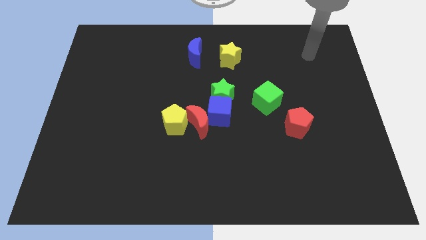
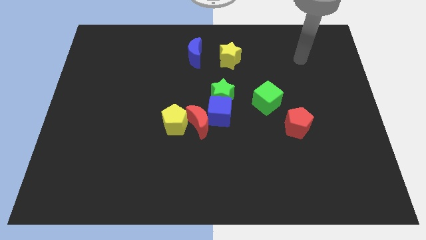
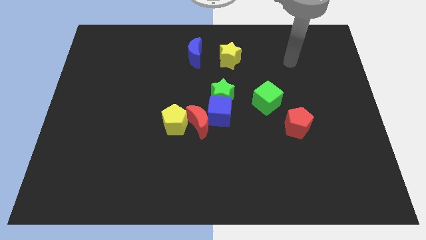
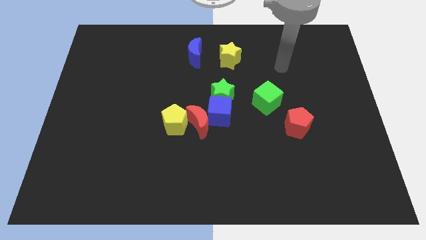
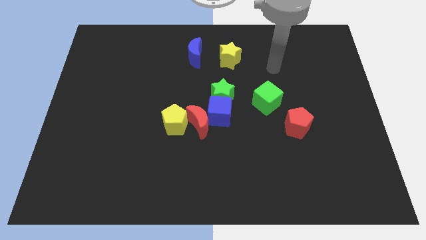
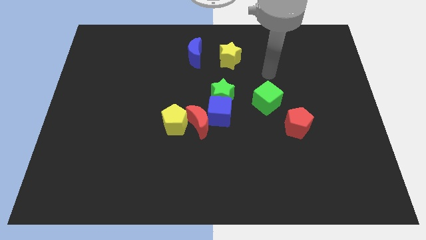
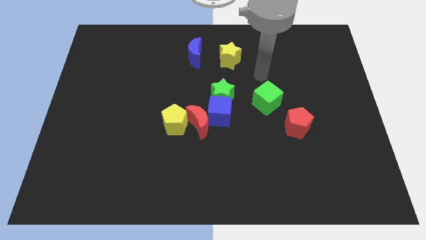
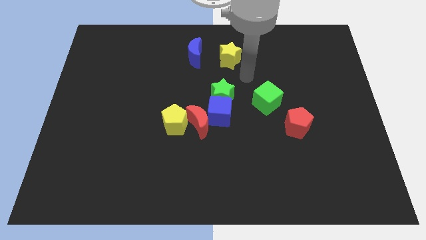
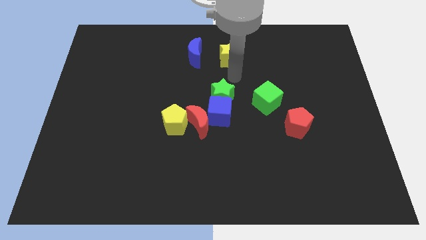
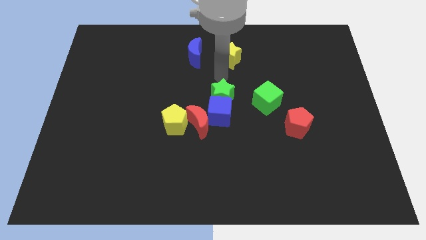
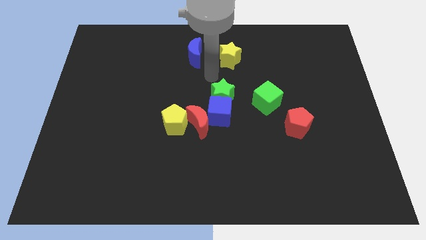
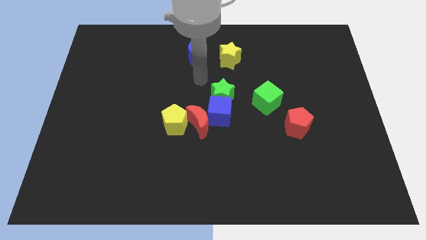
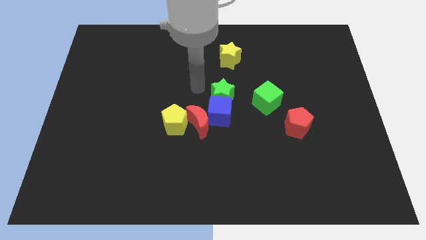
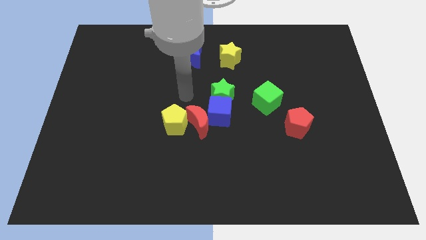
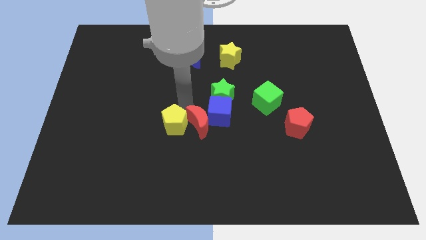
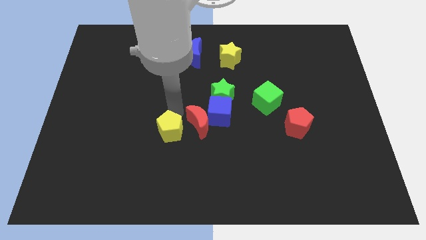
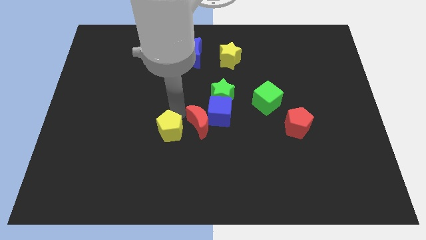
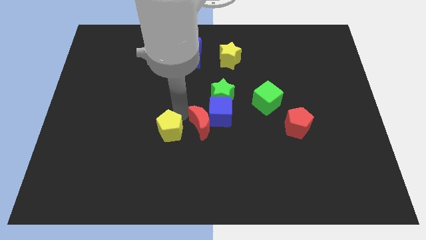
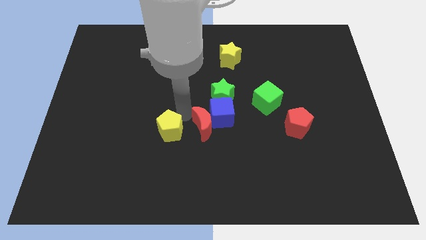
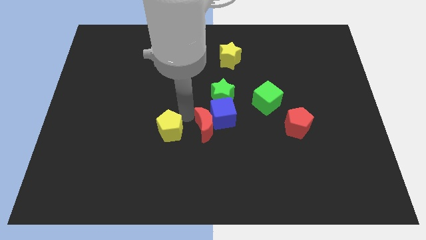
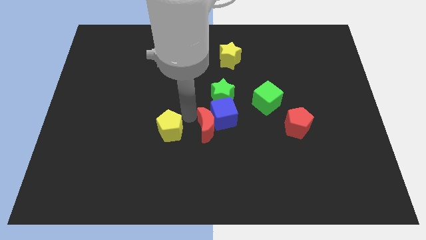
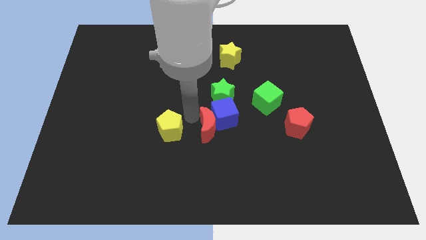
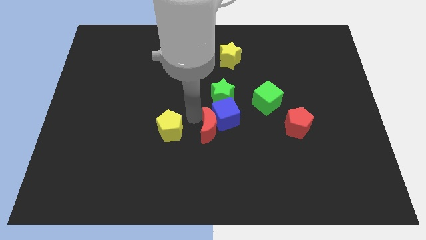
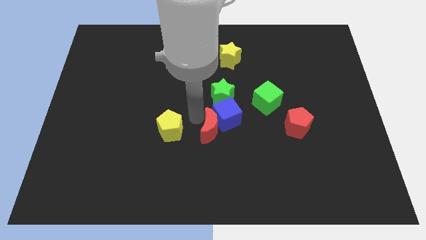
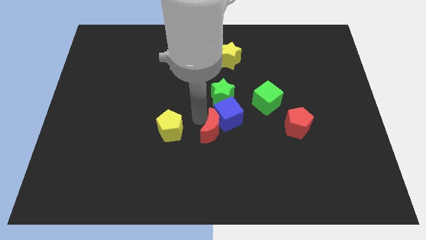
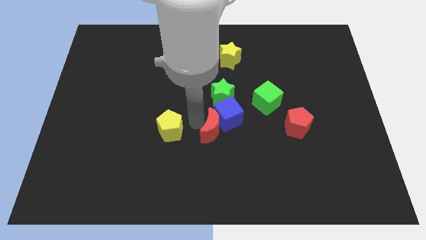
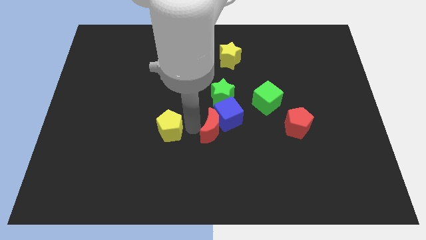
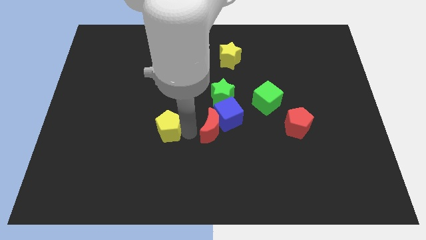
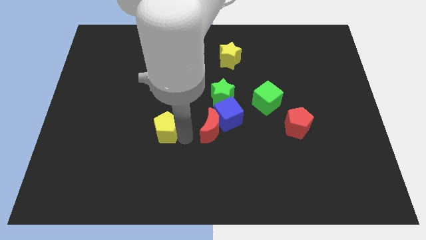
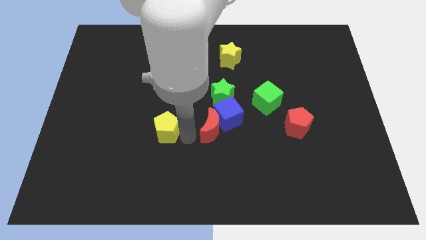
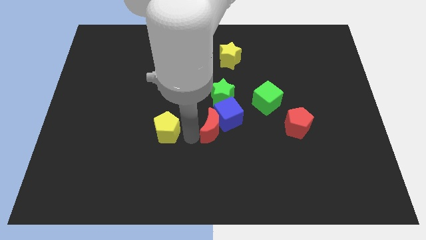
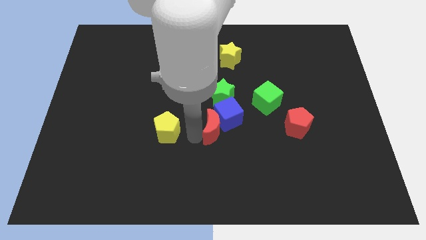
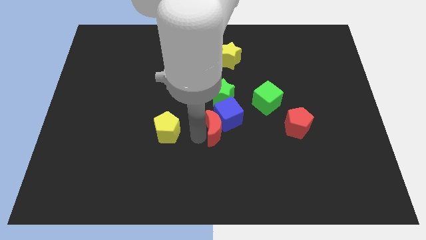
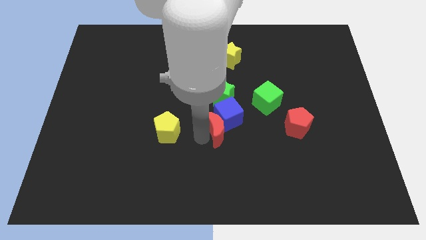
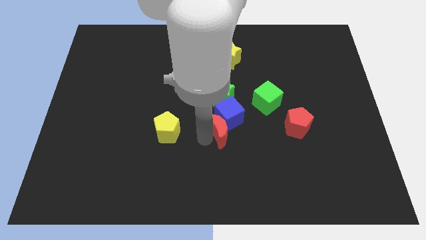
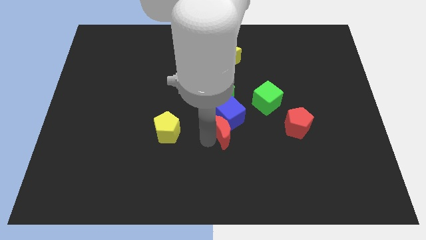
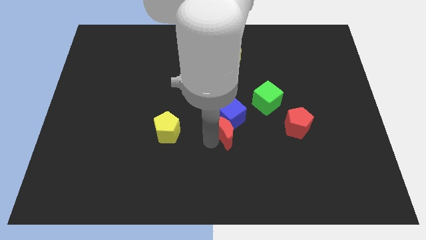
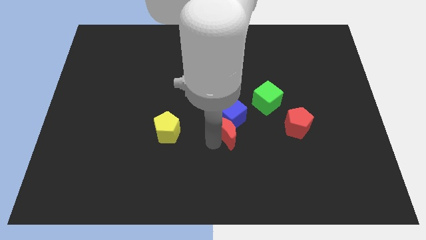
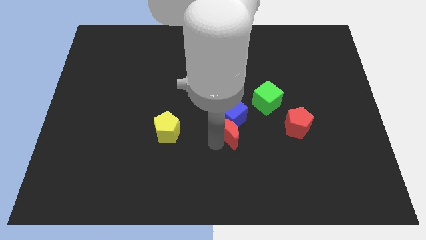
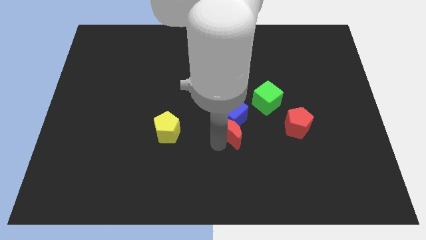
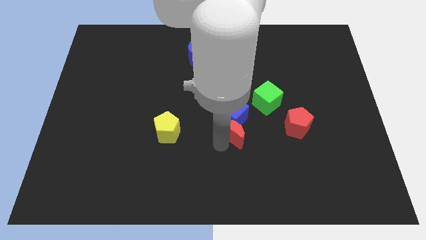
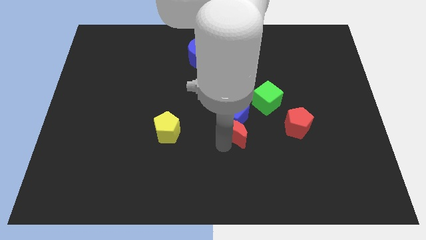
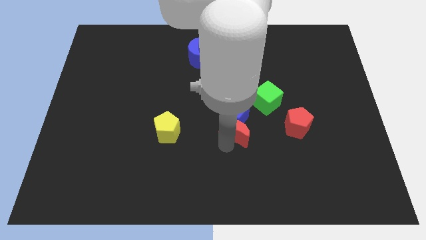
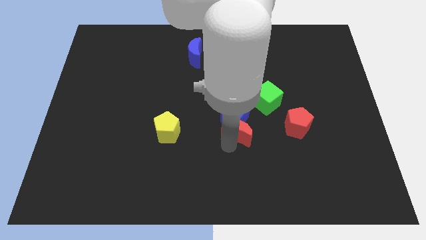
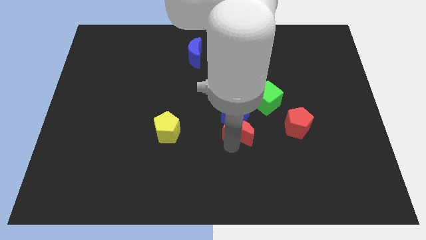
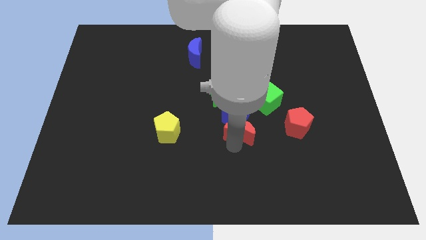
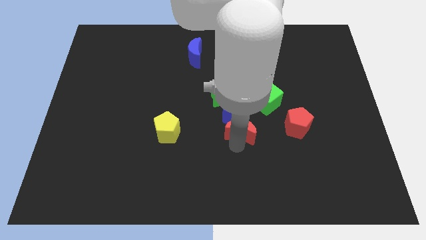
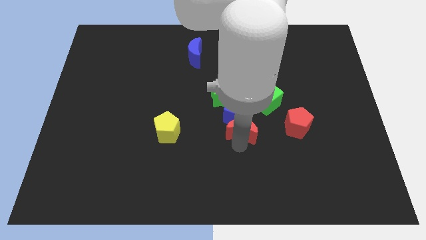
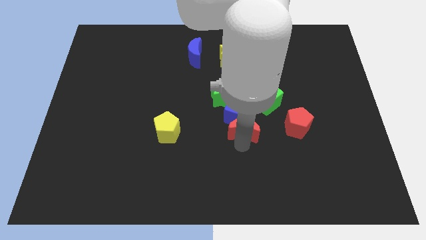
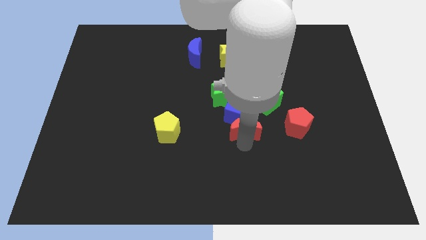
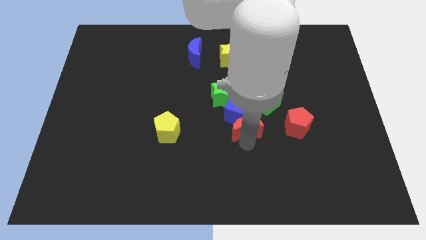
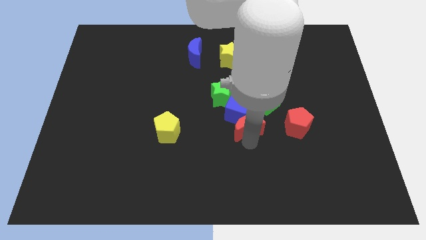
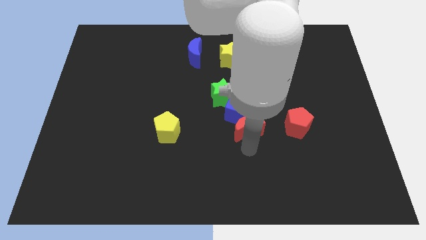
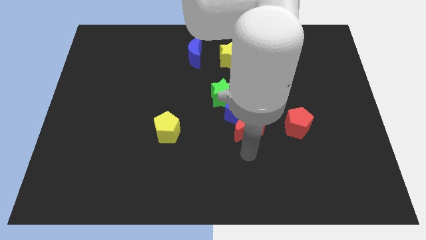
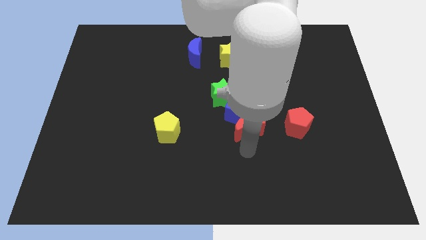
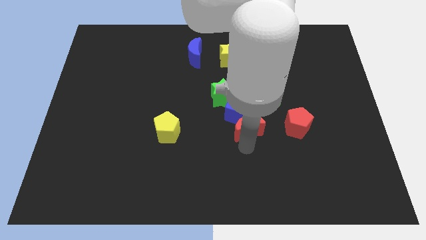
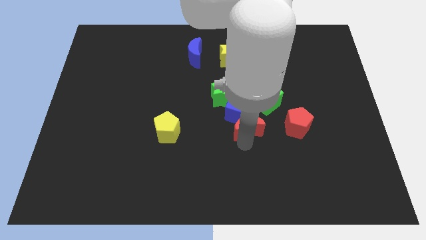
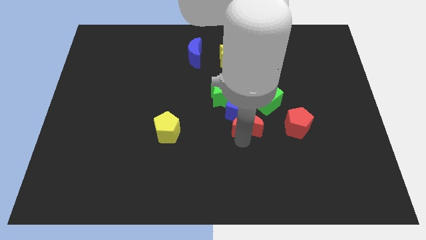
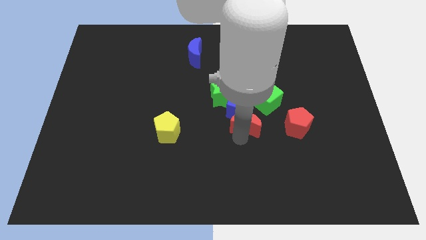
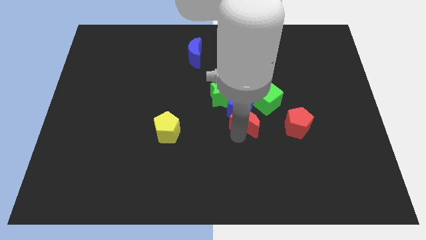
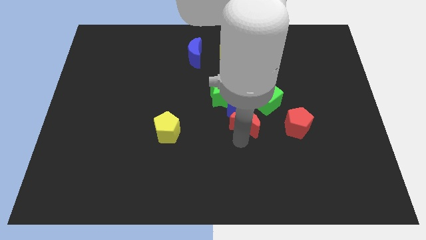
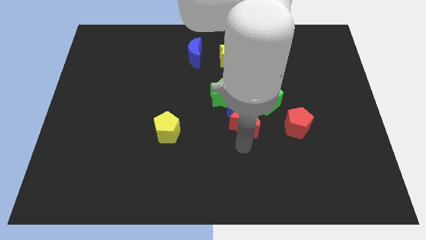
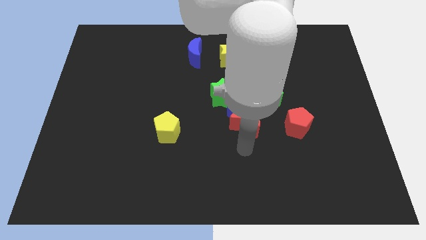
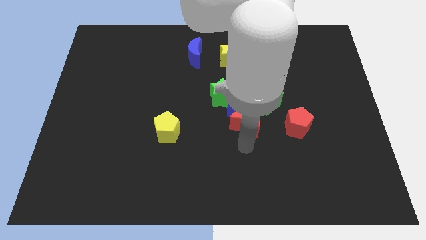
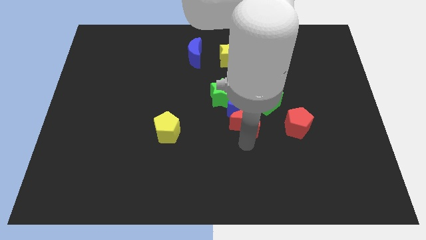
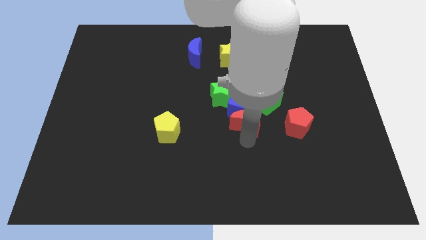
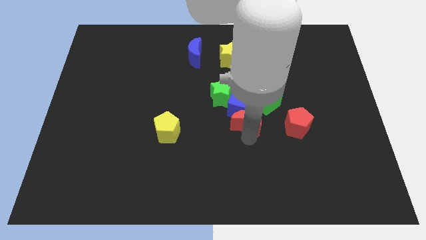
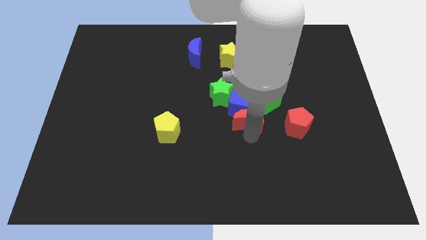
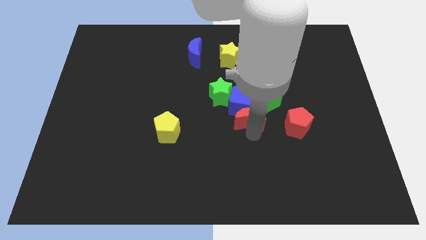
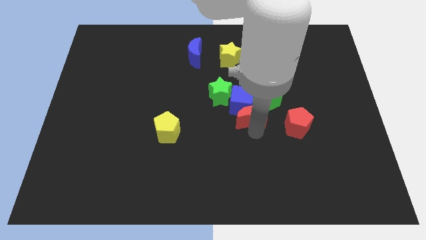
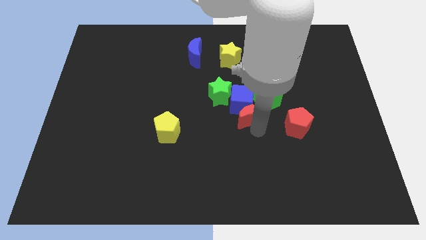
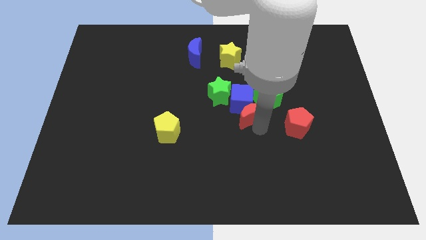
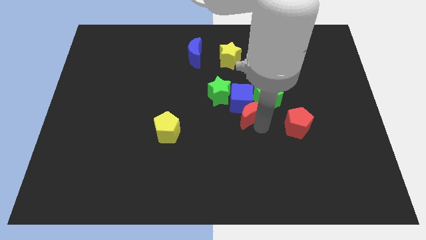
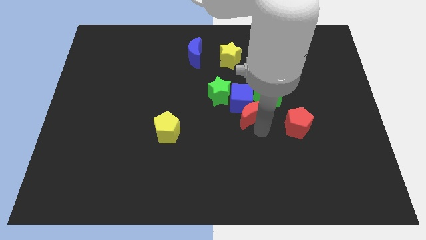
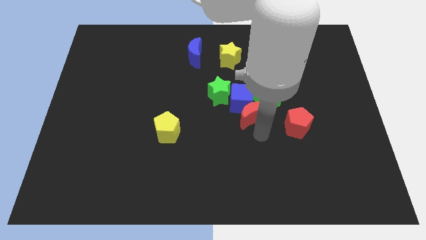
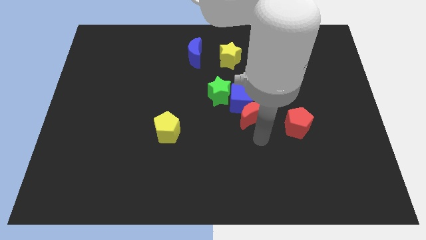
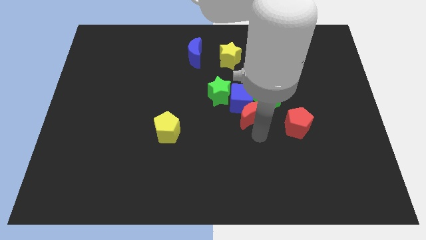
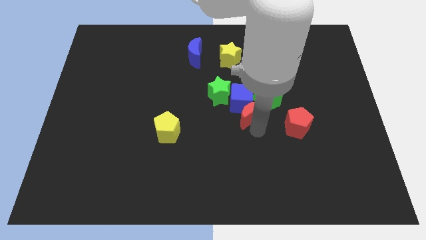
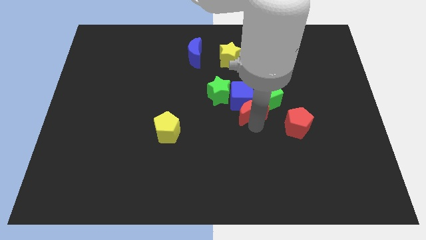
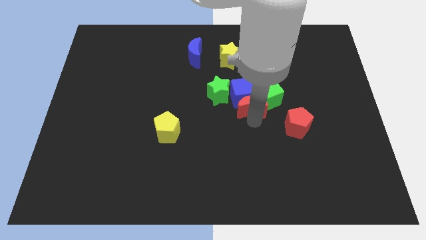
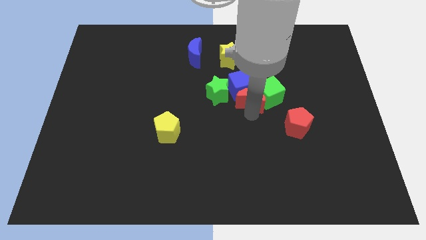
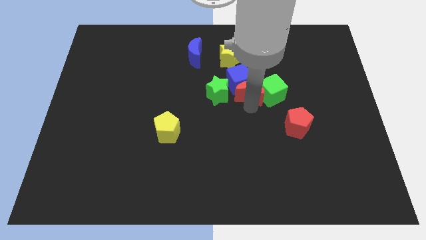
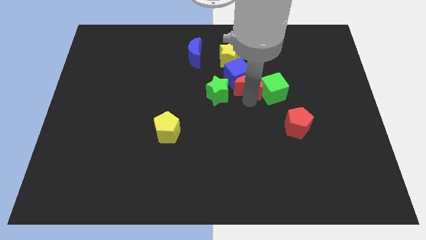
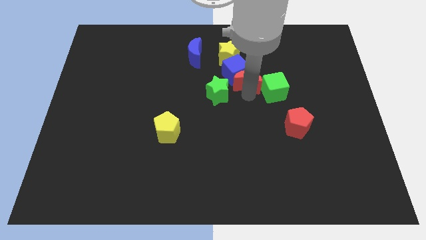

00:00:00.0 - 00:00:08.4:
push the red moon to the bottom right of the yellow star
